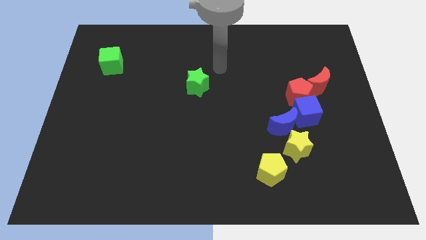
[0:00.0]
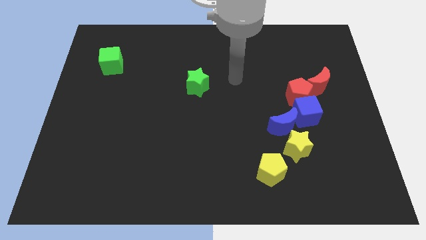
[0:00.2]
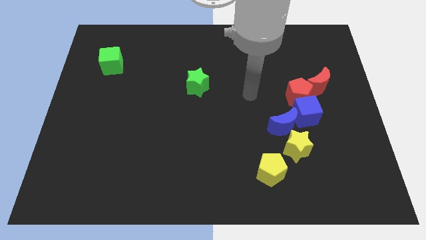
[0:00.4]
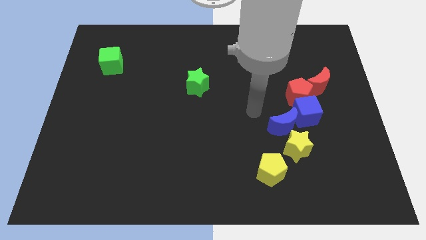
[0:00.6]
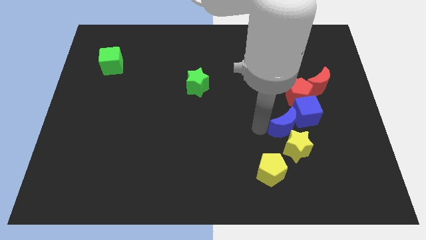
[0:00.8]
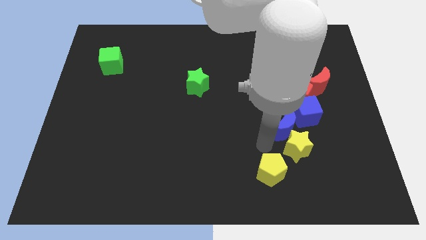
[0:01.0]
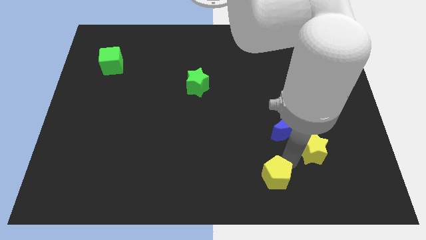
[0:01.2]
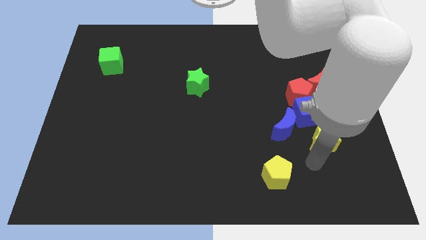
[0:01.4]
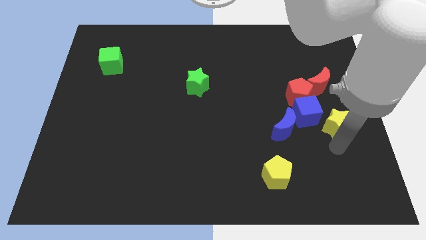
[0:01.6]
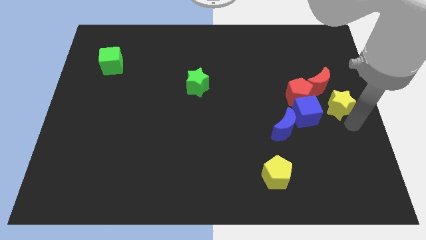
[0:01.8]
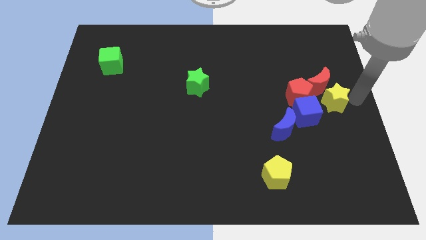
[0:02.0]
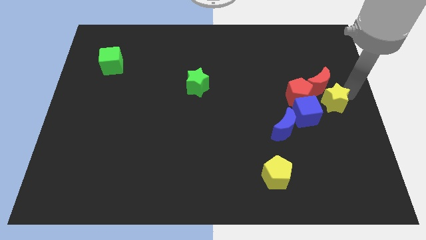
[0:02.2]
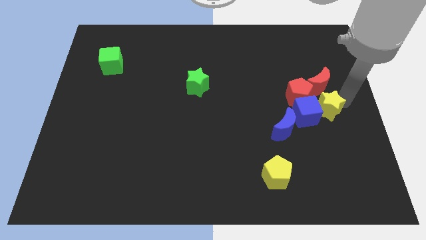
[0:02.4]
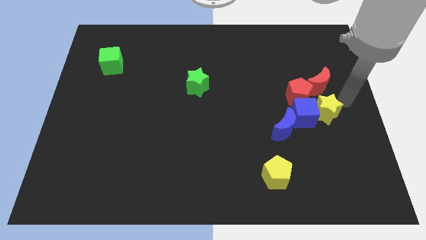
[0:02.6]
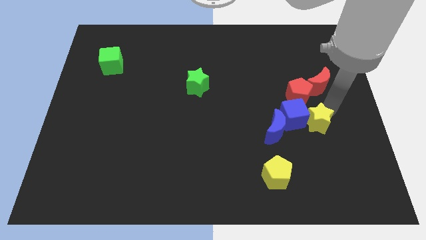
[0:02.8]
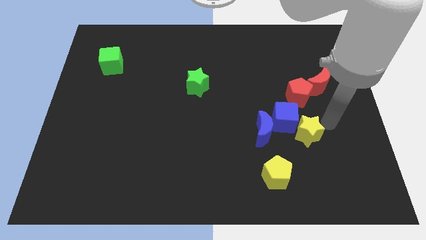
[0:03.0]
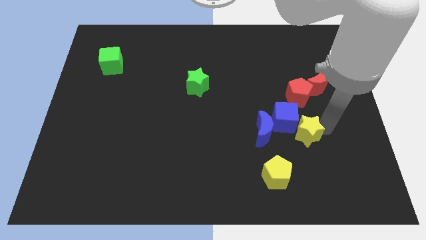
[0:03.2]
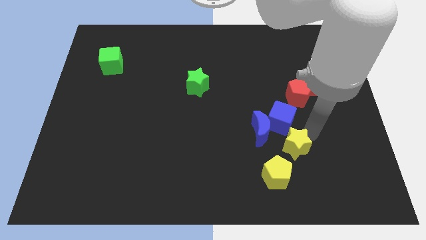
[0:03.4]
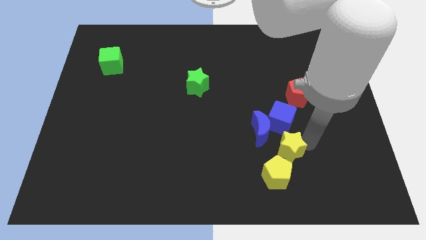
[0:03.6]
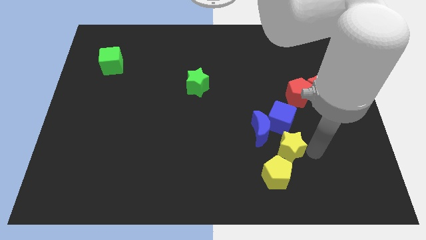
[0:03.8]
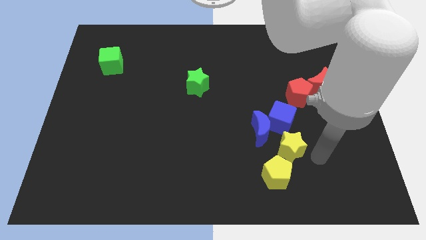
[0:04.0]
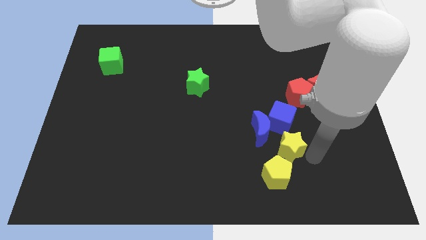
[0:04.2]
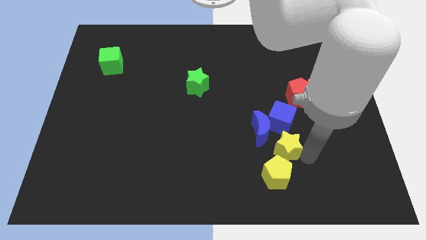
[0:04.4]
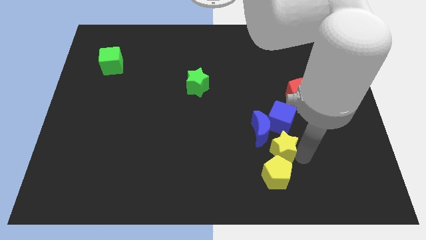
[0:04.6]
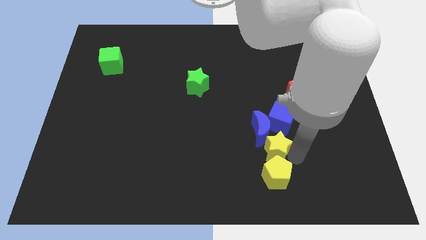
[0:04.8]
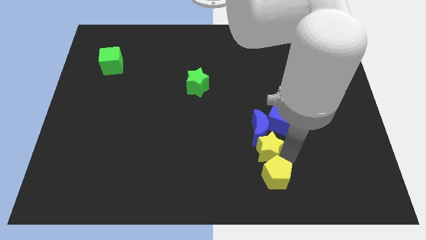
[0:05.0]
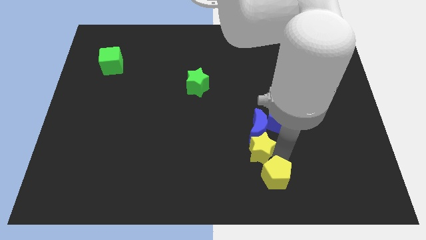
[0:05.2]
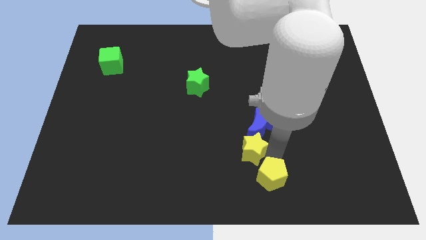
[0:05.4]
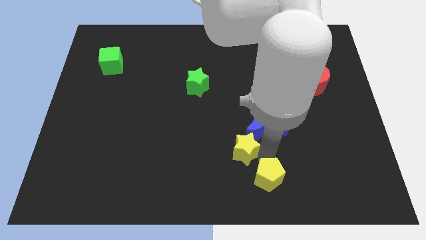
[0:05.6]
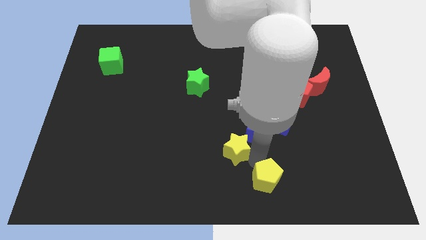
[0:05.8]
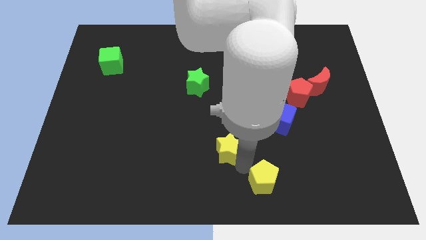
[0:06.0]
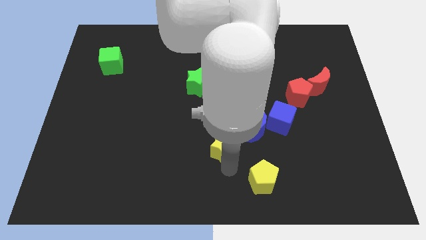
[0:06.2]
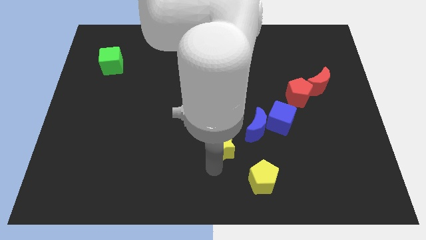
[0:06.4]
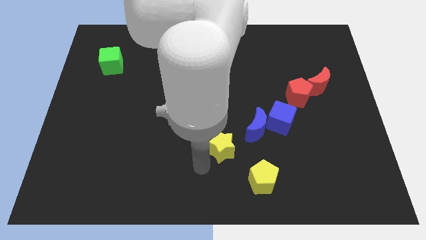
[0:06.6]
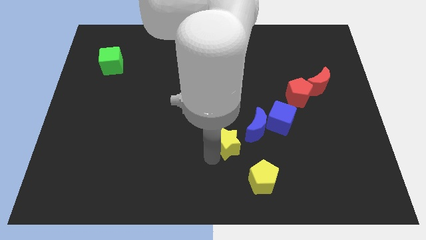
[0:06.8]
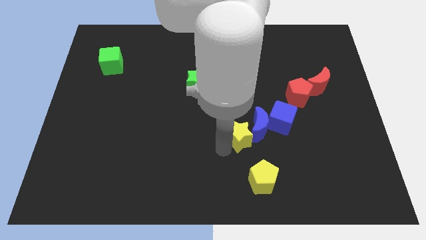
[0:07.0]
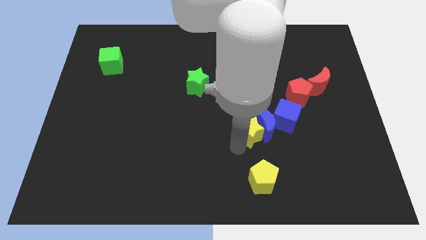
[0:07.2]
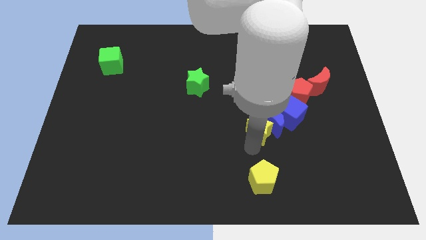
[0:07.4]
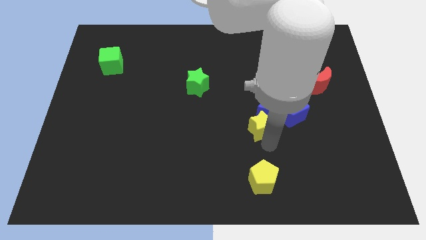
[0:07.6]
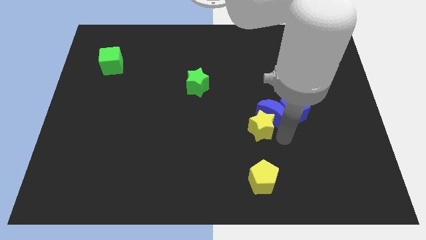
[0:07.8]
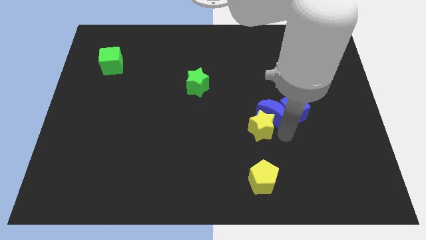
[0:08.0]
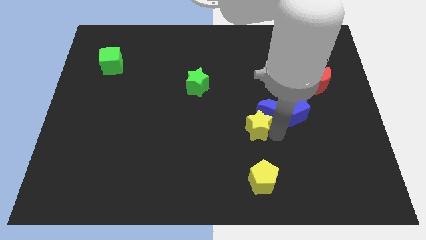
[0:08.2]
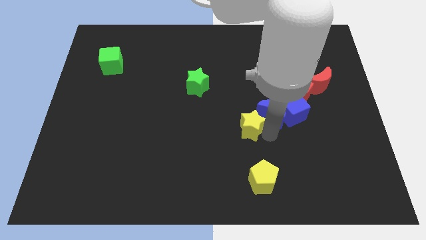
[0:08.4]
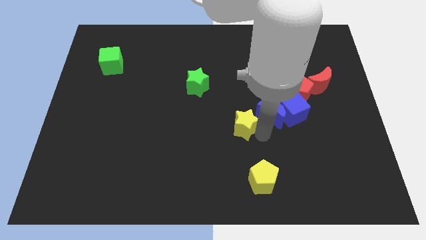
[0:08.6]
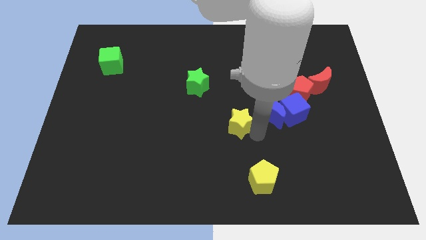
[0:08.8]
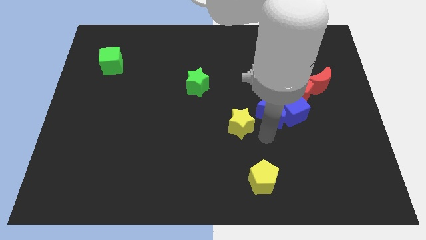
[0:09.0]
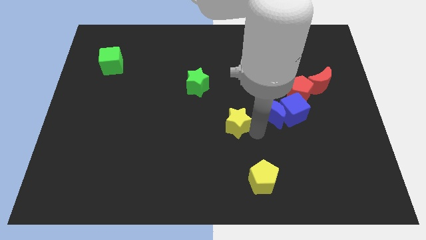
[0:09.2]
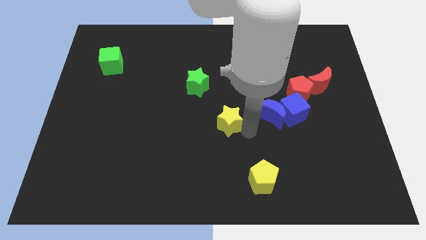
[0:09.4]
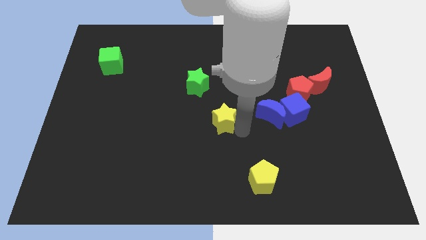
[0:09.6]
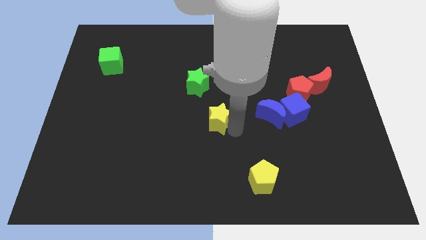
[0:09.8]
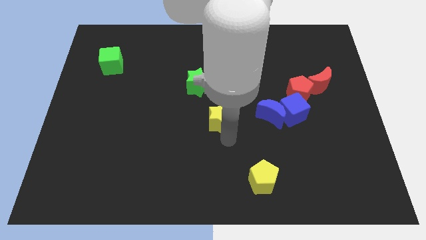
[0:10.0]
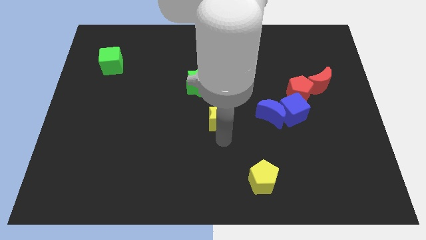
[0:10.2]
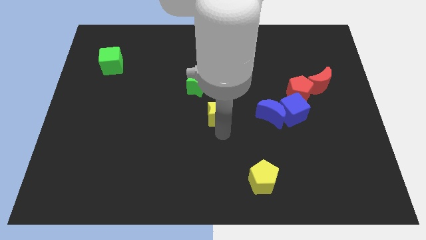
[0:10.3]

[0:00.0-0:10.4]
put the yellow star to the bottom right of the green star

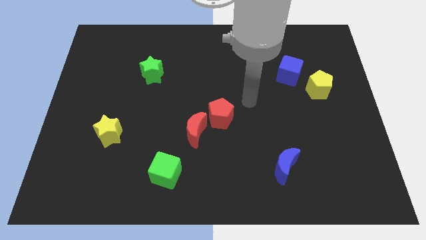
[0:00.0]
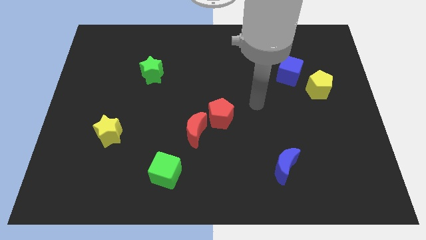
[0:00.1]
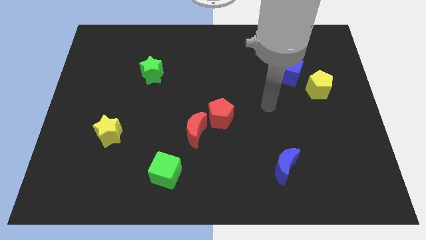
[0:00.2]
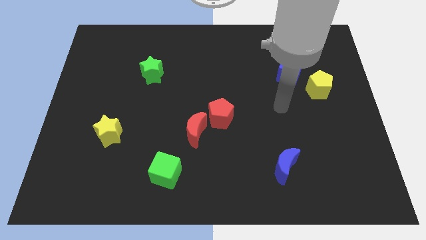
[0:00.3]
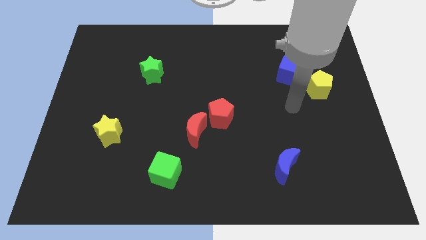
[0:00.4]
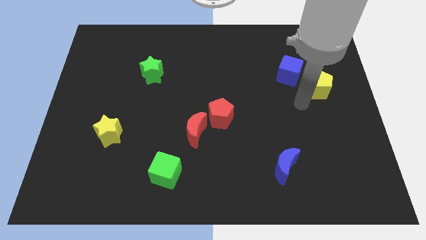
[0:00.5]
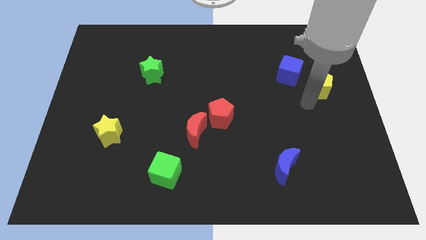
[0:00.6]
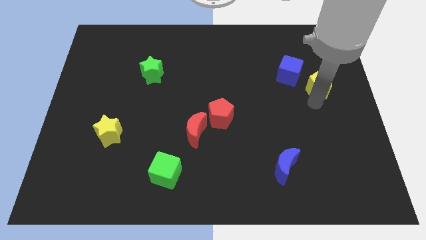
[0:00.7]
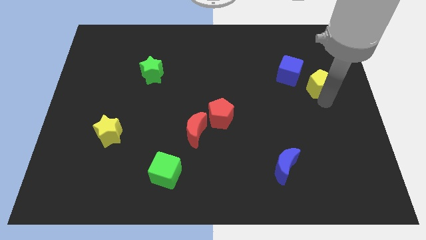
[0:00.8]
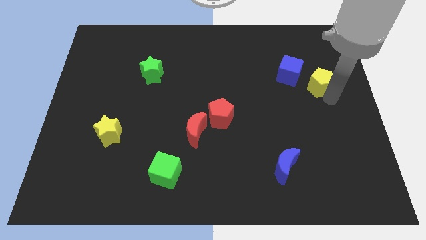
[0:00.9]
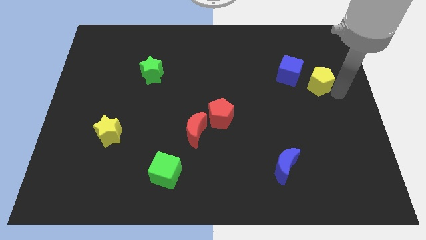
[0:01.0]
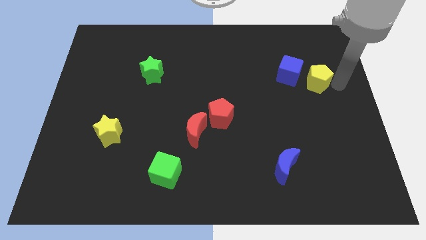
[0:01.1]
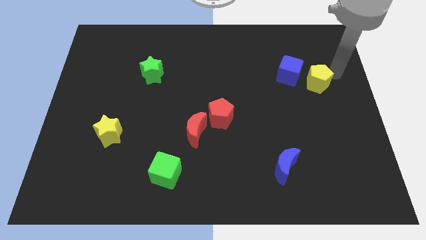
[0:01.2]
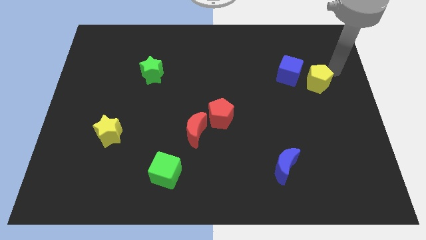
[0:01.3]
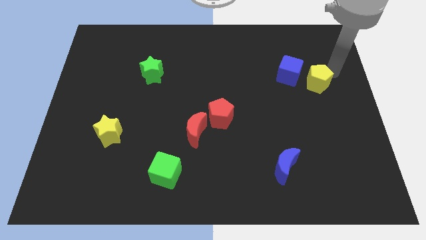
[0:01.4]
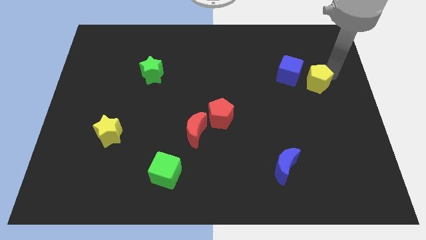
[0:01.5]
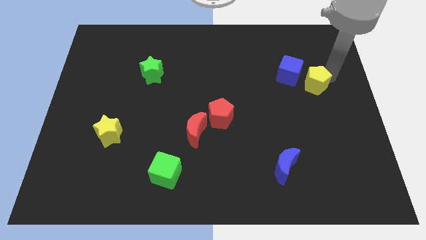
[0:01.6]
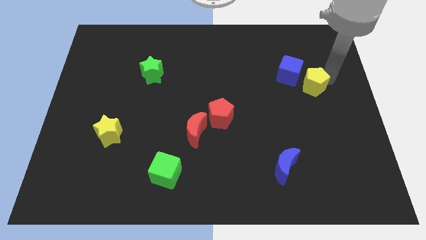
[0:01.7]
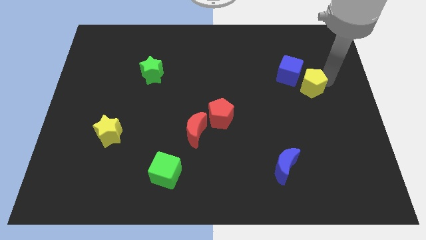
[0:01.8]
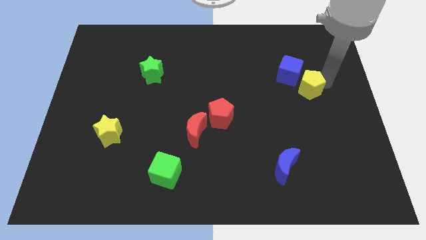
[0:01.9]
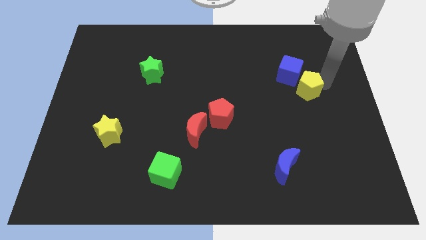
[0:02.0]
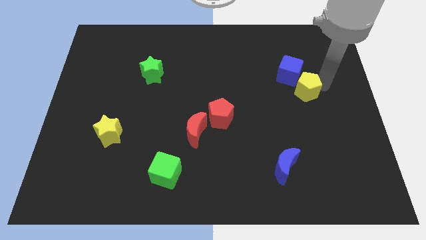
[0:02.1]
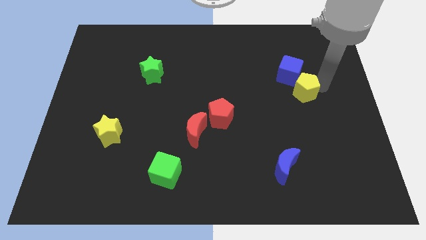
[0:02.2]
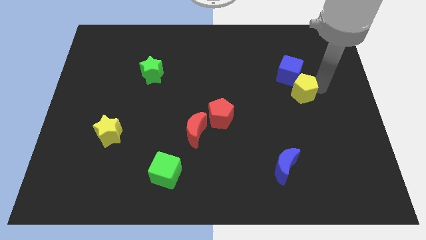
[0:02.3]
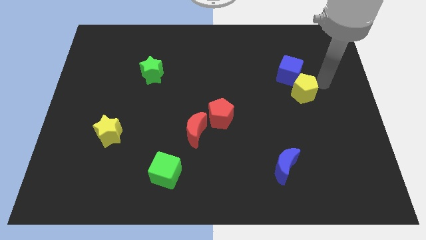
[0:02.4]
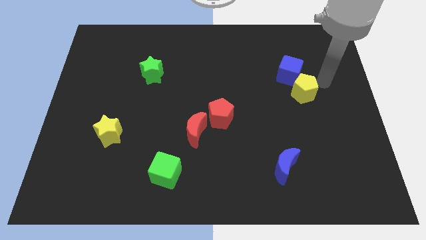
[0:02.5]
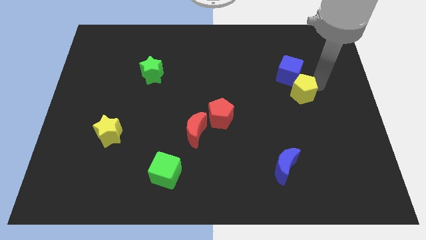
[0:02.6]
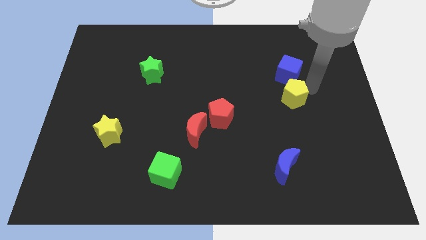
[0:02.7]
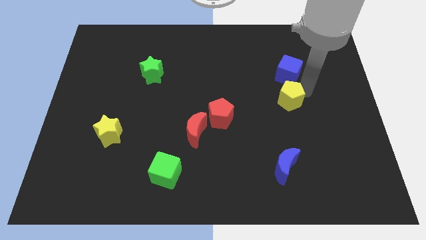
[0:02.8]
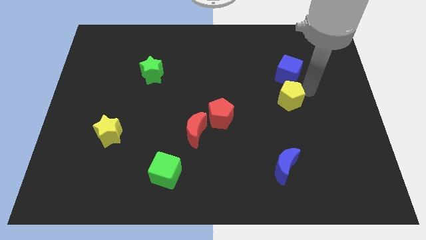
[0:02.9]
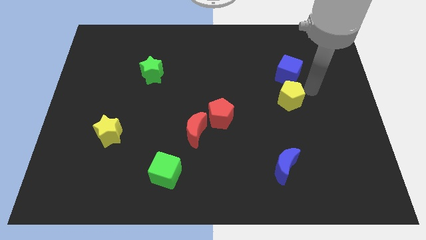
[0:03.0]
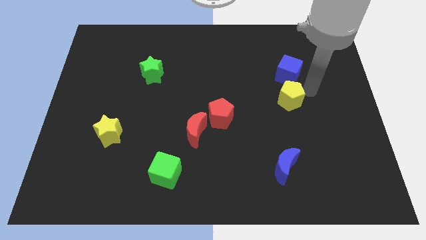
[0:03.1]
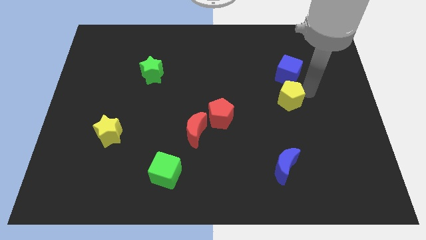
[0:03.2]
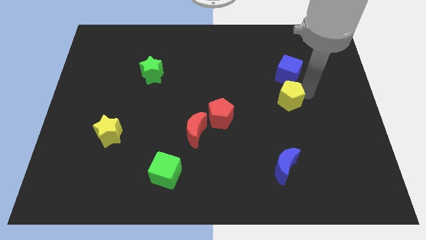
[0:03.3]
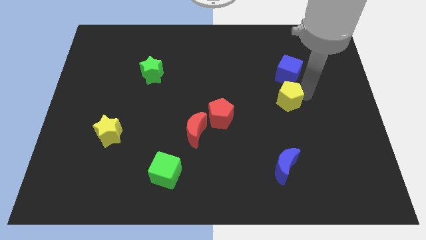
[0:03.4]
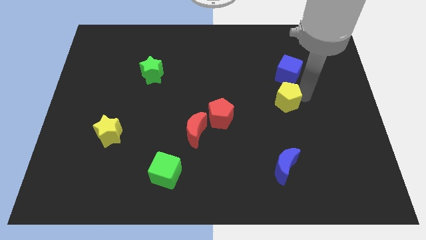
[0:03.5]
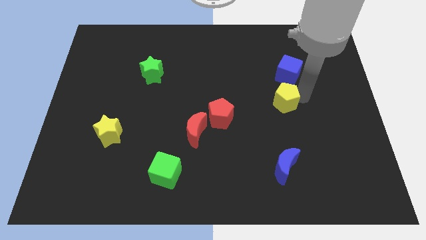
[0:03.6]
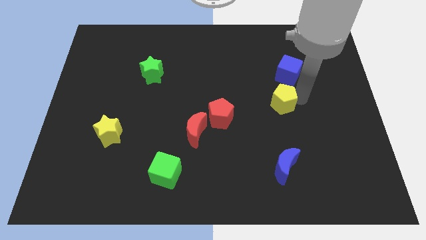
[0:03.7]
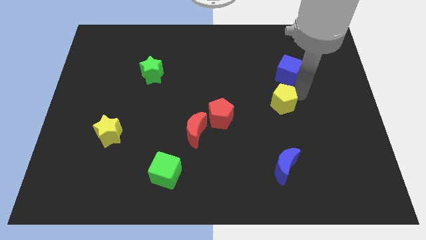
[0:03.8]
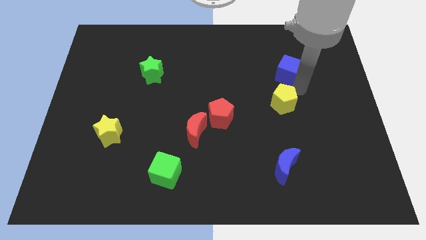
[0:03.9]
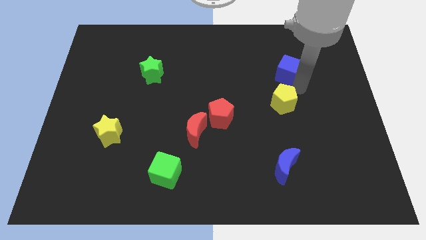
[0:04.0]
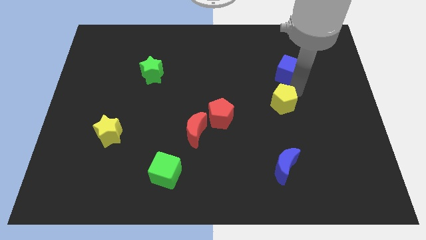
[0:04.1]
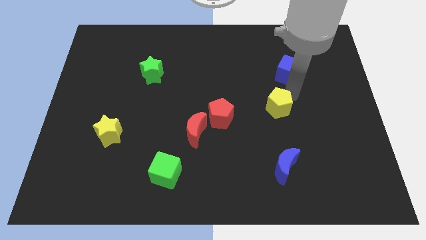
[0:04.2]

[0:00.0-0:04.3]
push the yellow pentagon just right of the red pentagon
